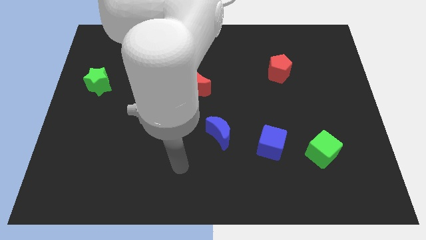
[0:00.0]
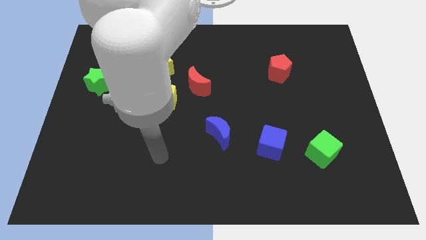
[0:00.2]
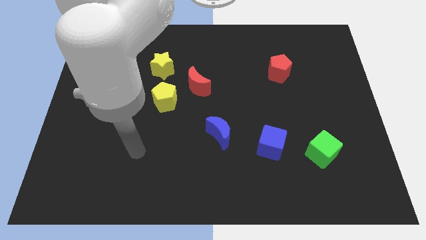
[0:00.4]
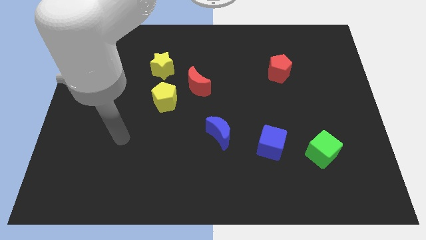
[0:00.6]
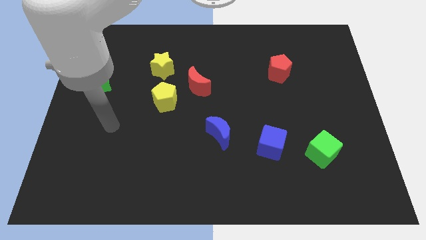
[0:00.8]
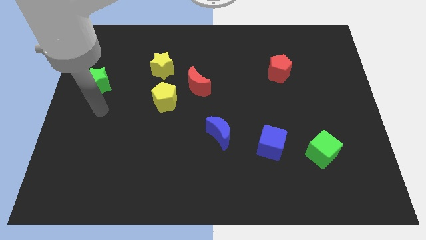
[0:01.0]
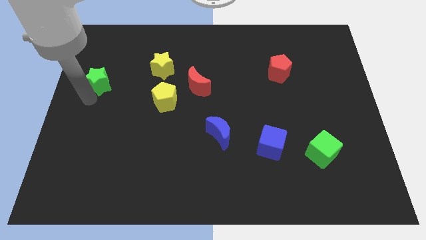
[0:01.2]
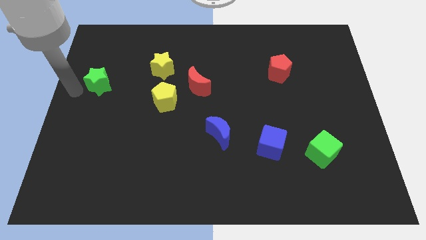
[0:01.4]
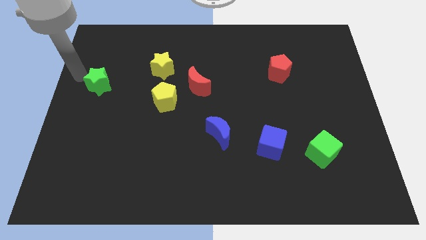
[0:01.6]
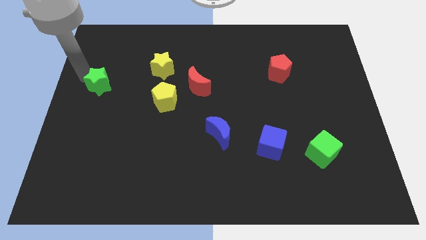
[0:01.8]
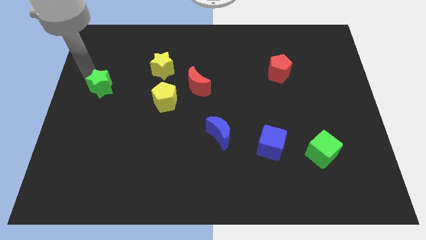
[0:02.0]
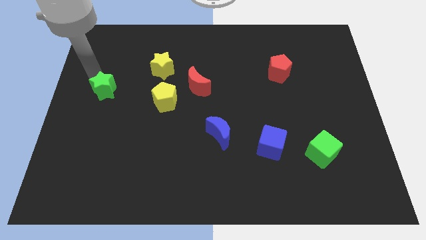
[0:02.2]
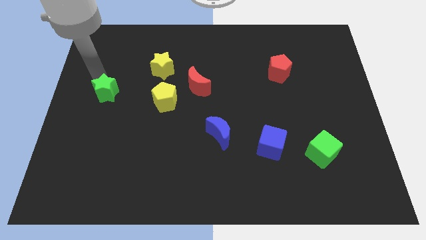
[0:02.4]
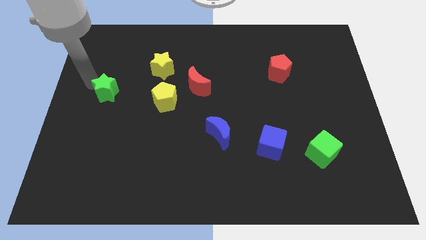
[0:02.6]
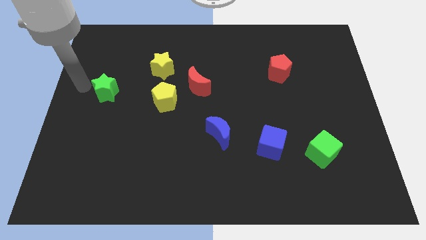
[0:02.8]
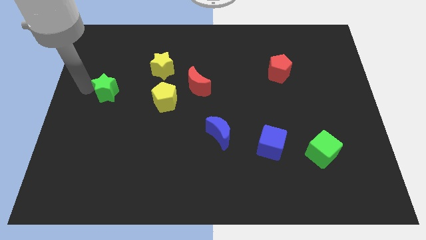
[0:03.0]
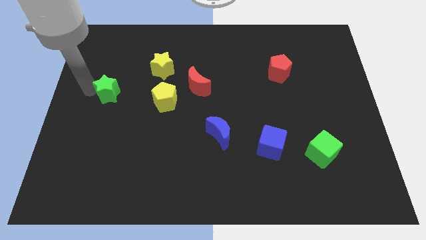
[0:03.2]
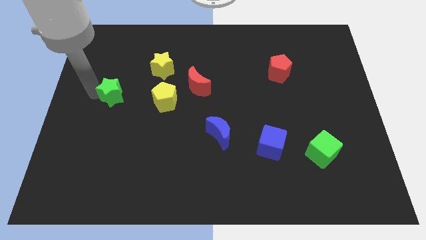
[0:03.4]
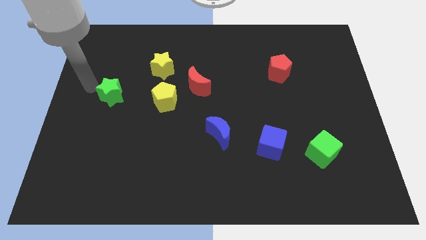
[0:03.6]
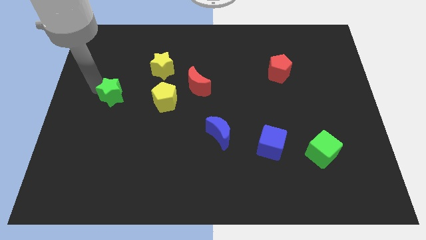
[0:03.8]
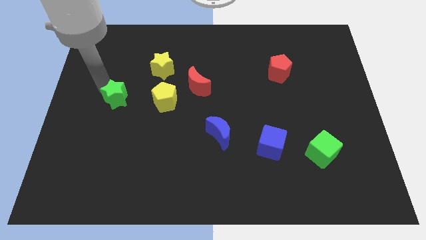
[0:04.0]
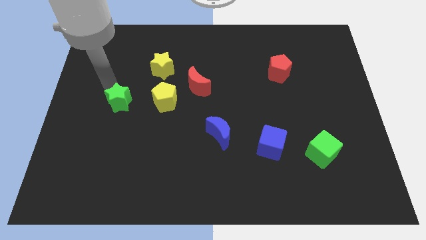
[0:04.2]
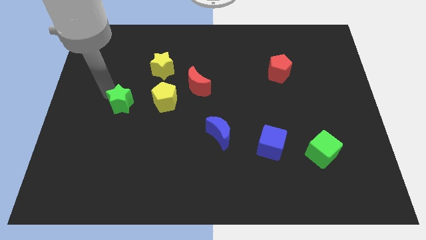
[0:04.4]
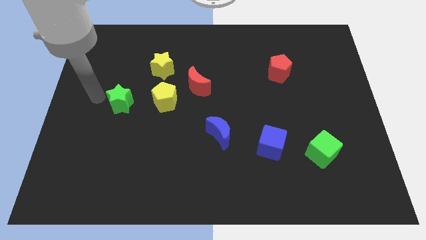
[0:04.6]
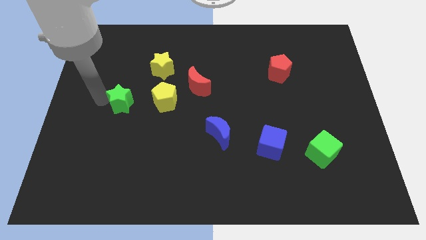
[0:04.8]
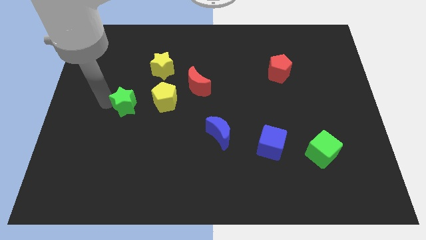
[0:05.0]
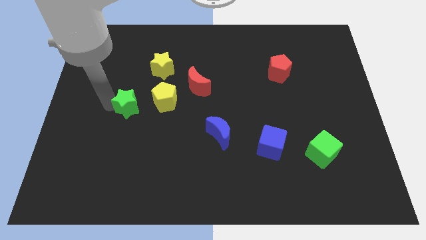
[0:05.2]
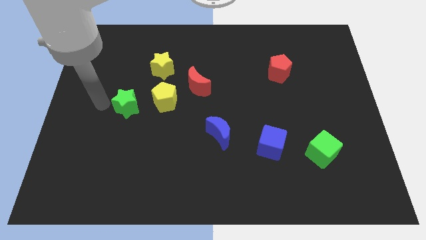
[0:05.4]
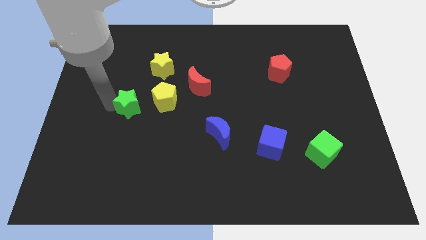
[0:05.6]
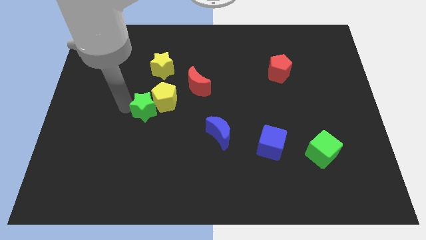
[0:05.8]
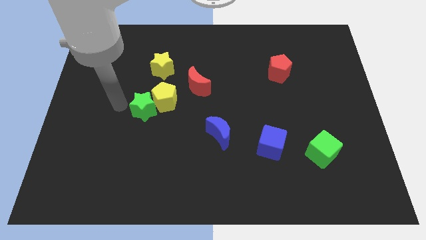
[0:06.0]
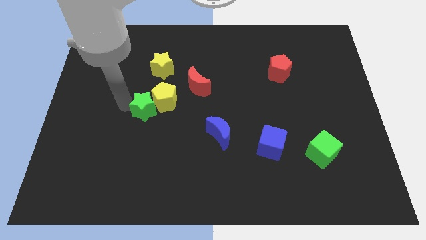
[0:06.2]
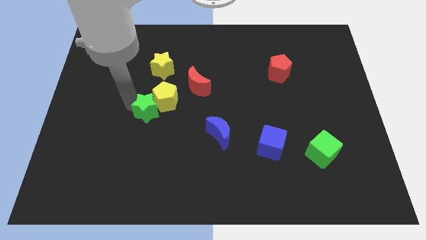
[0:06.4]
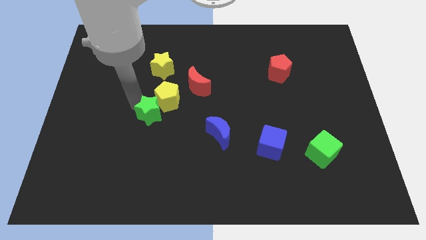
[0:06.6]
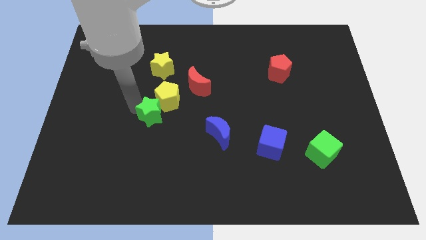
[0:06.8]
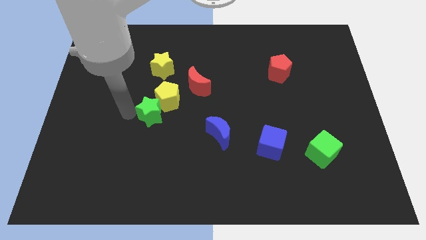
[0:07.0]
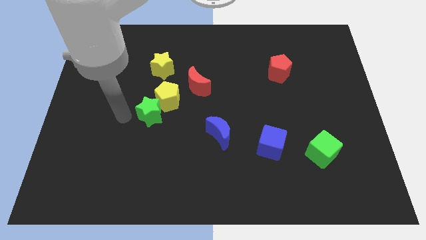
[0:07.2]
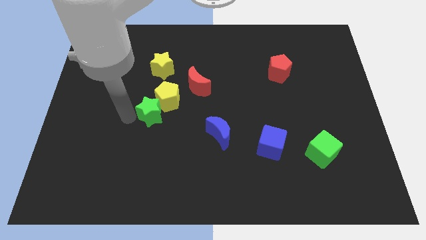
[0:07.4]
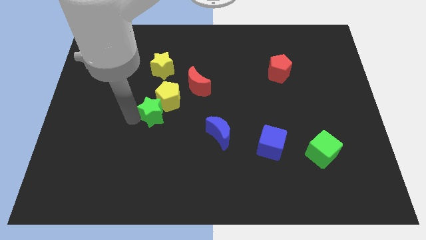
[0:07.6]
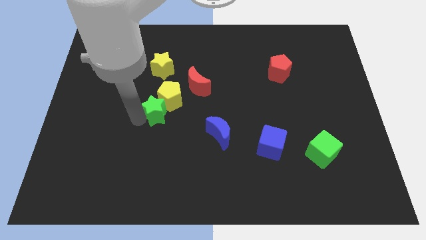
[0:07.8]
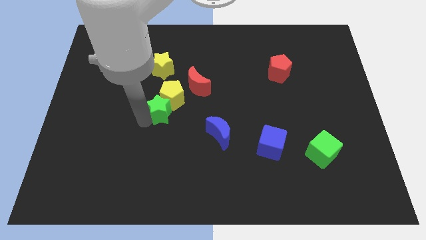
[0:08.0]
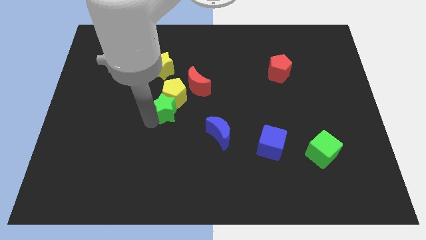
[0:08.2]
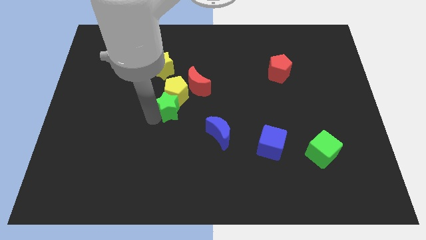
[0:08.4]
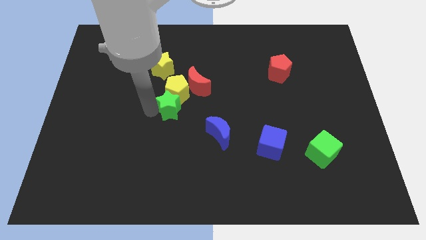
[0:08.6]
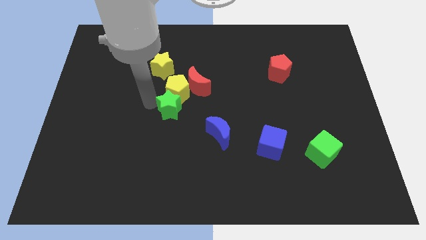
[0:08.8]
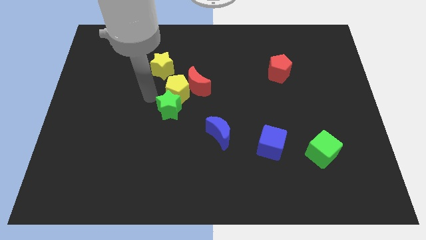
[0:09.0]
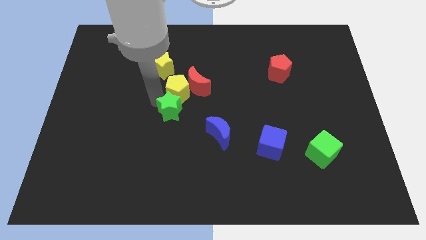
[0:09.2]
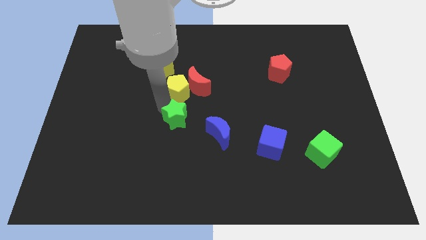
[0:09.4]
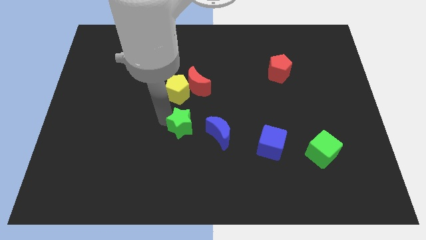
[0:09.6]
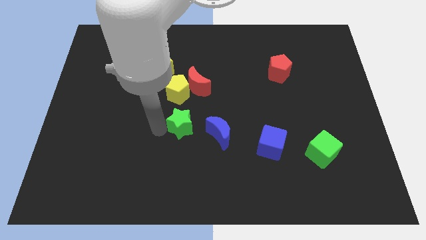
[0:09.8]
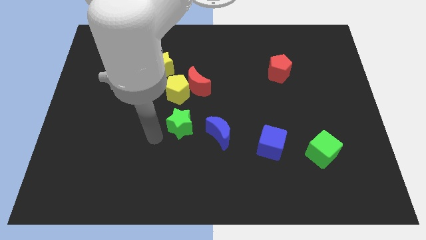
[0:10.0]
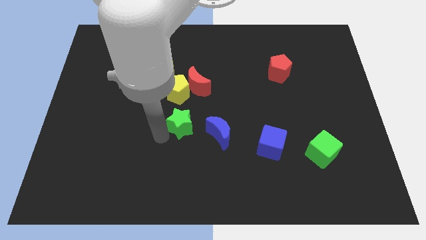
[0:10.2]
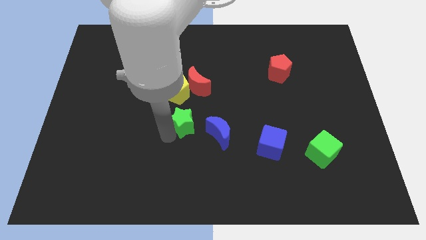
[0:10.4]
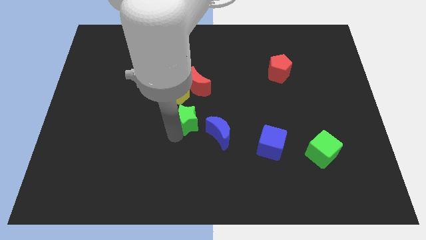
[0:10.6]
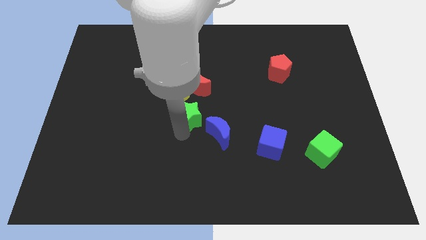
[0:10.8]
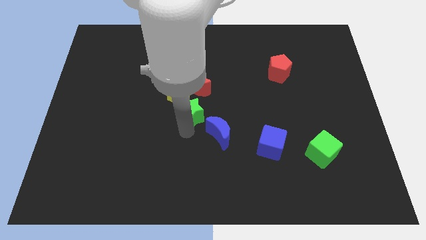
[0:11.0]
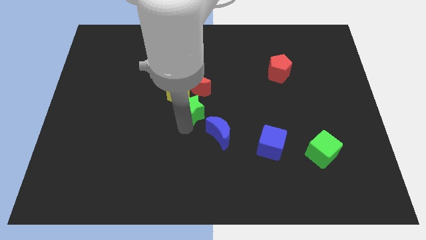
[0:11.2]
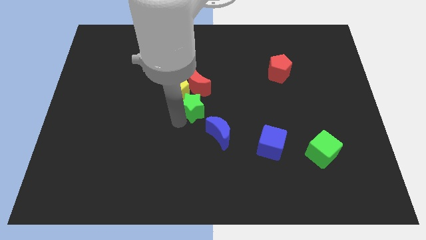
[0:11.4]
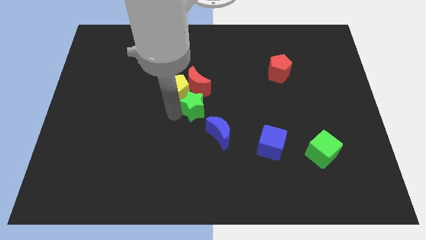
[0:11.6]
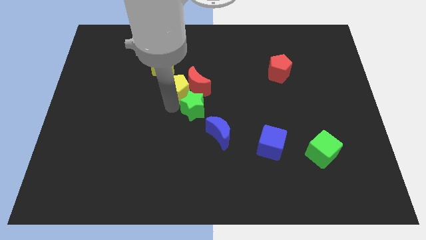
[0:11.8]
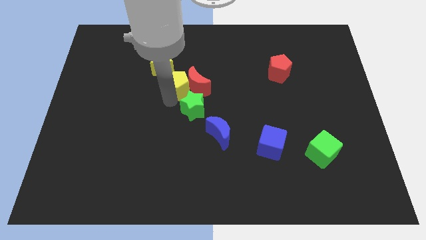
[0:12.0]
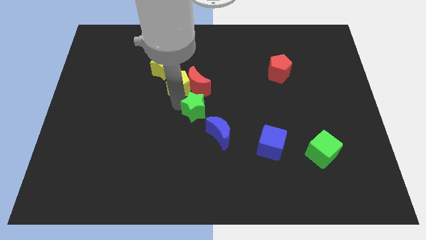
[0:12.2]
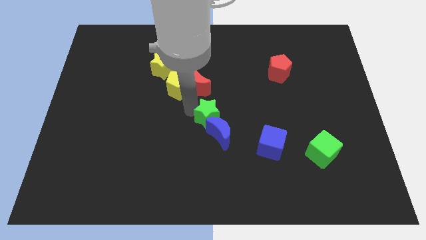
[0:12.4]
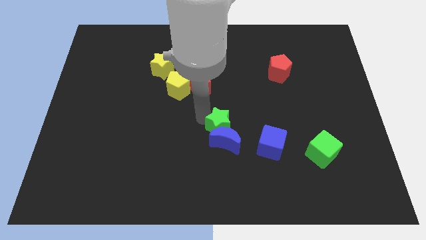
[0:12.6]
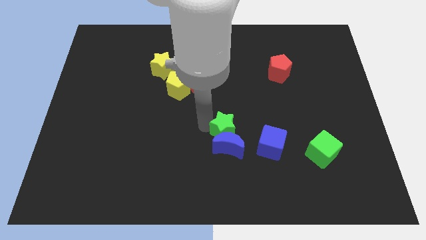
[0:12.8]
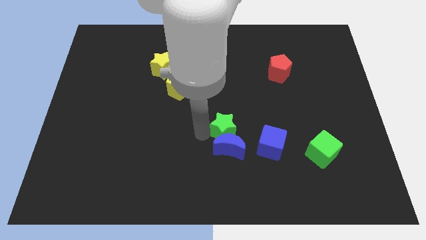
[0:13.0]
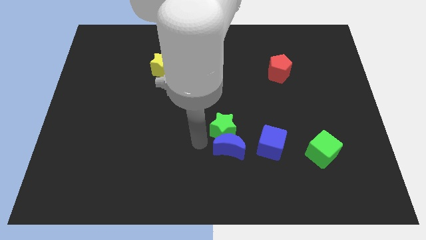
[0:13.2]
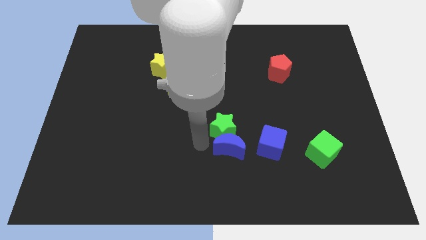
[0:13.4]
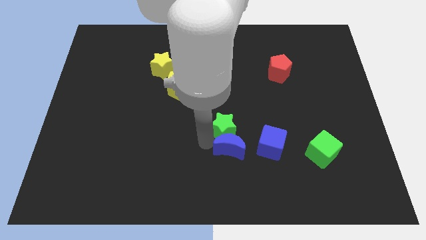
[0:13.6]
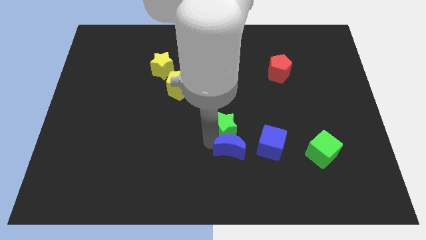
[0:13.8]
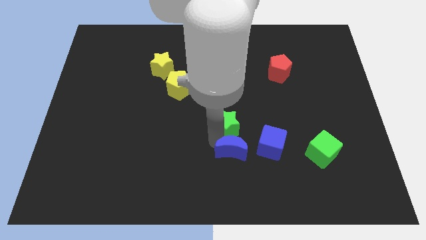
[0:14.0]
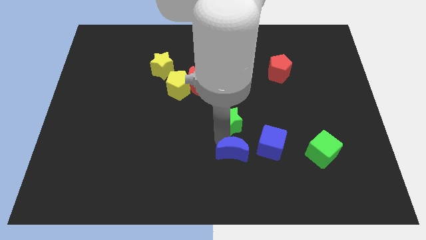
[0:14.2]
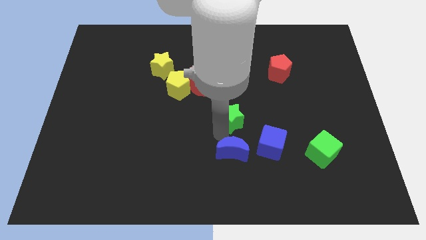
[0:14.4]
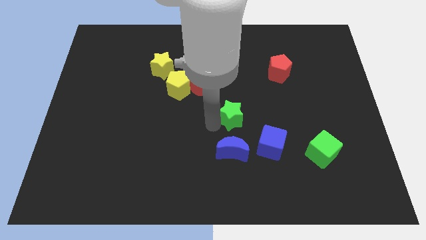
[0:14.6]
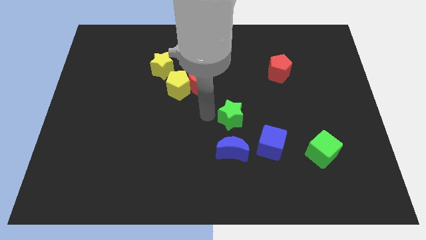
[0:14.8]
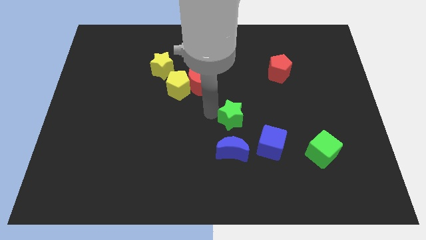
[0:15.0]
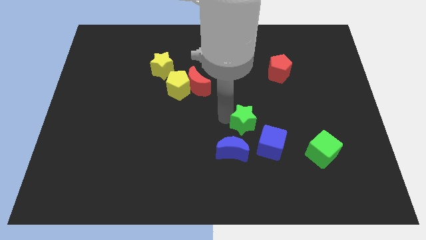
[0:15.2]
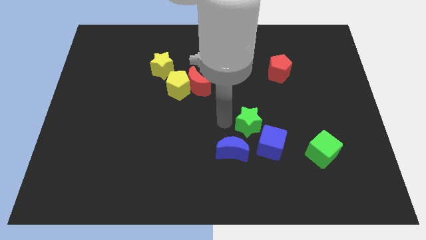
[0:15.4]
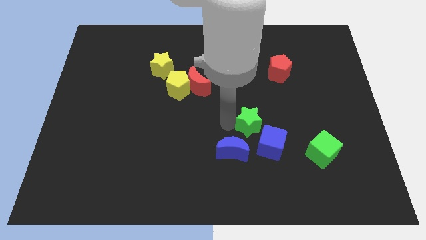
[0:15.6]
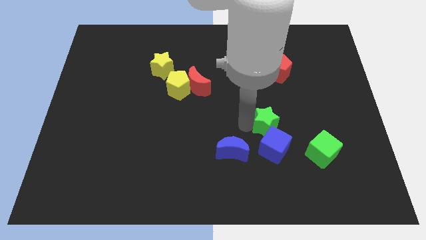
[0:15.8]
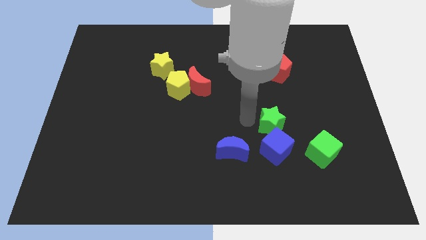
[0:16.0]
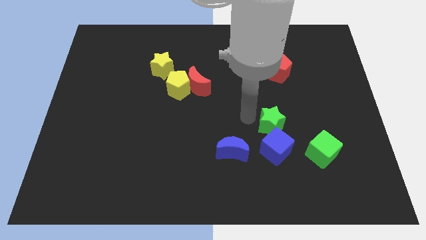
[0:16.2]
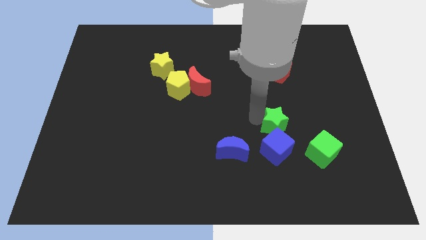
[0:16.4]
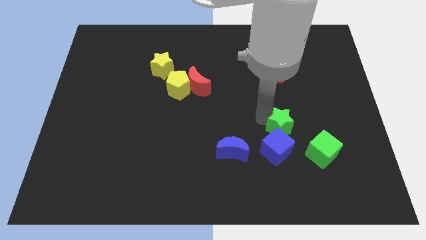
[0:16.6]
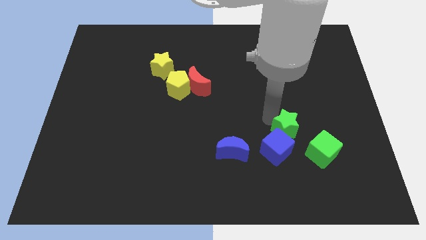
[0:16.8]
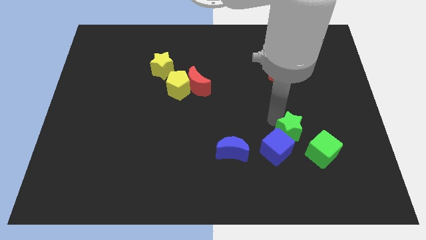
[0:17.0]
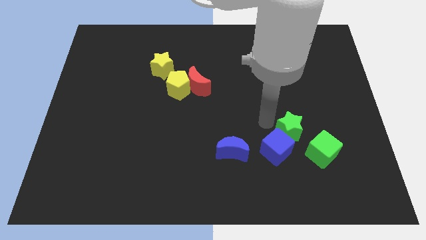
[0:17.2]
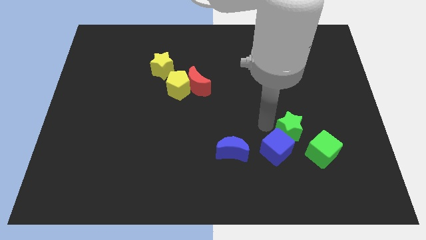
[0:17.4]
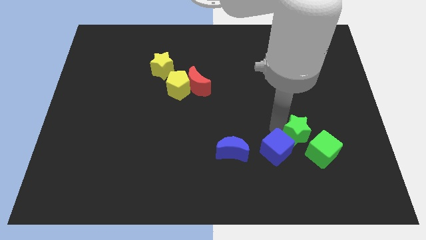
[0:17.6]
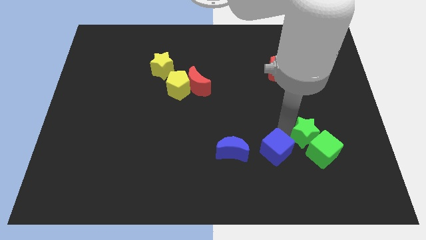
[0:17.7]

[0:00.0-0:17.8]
put the green star to the green cube
